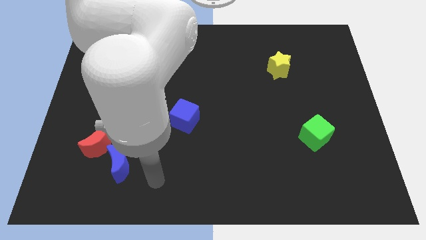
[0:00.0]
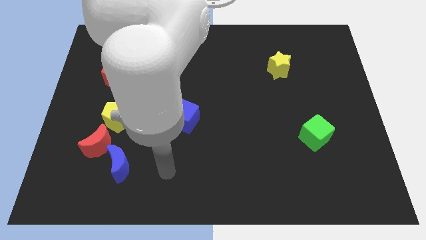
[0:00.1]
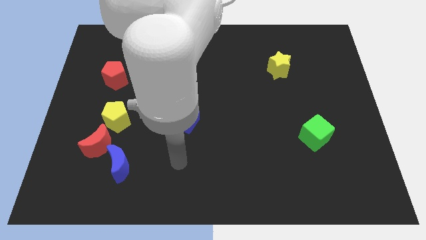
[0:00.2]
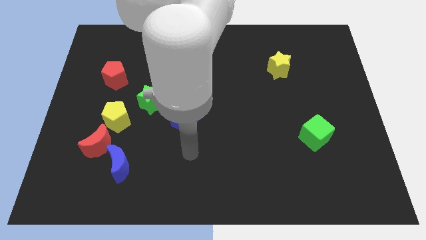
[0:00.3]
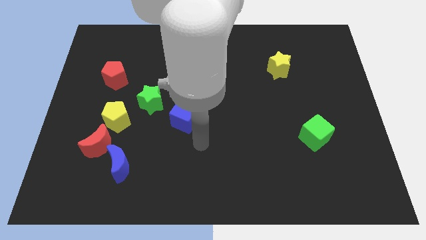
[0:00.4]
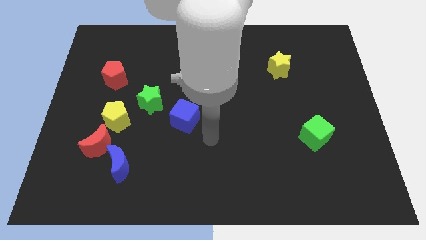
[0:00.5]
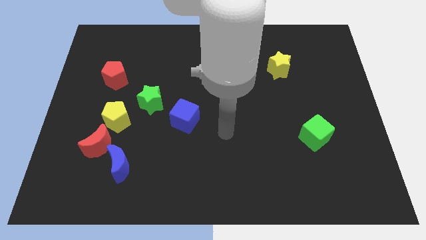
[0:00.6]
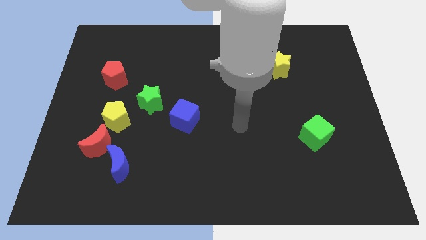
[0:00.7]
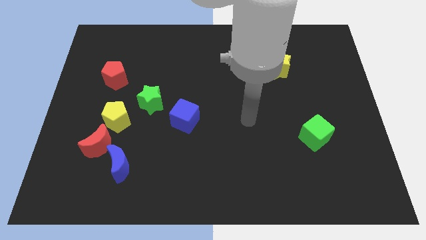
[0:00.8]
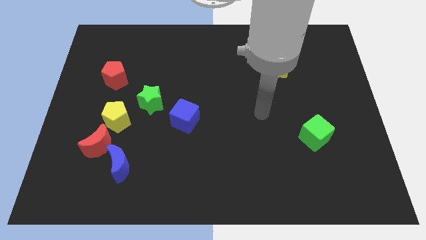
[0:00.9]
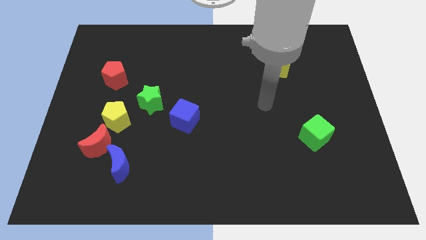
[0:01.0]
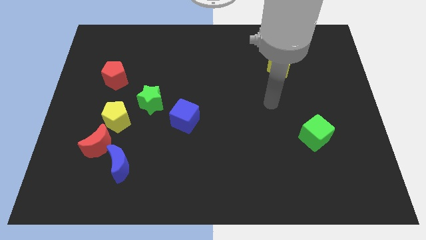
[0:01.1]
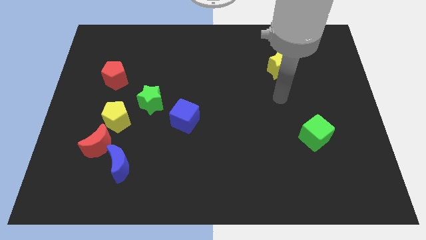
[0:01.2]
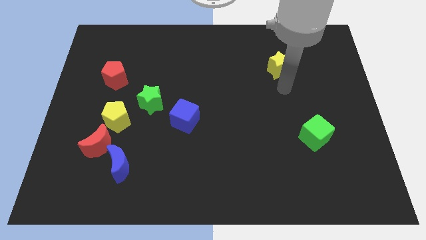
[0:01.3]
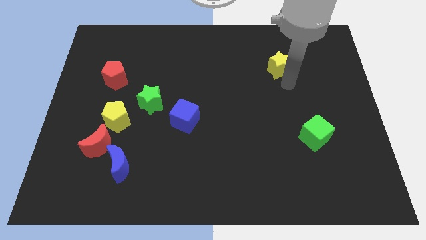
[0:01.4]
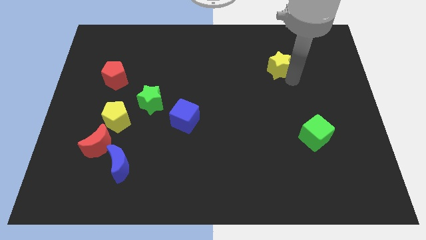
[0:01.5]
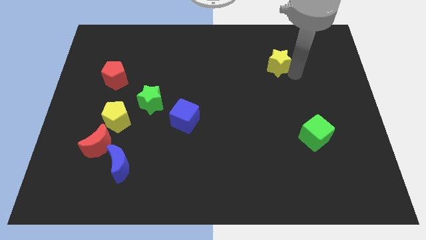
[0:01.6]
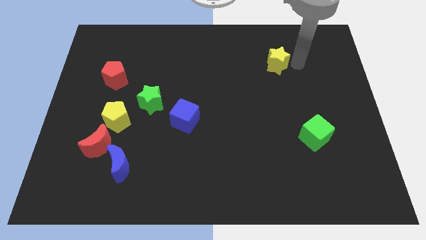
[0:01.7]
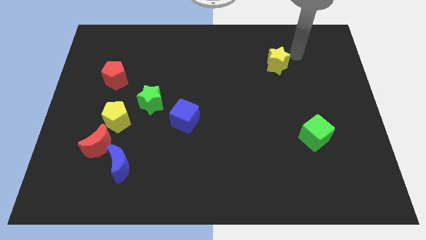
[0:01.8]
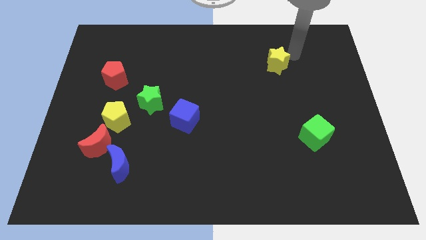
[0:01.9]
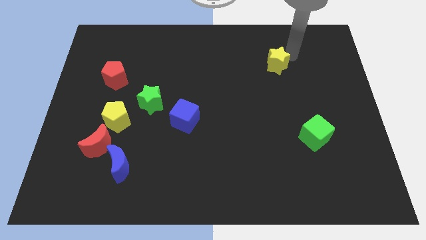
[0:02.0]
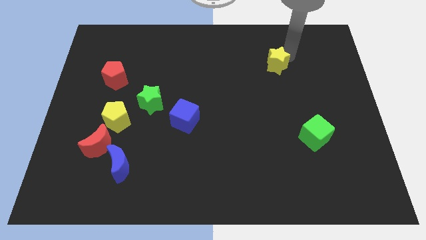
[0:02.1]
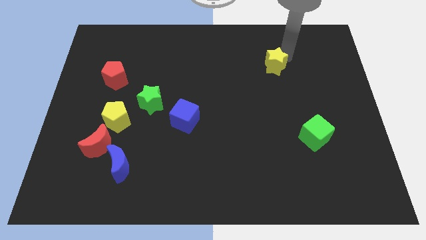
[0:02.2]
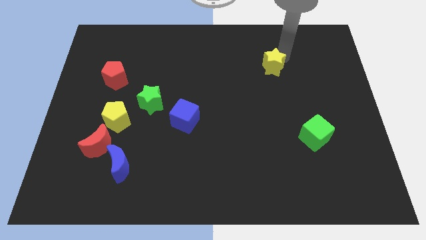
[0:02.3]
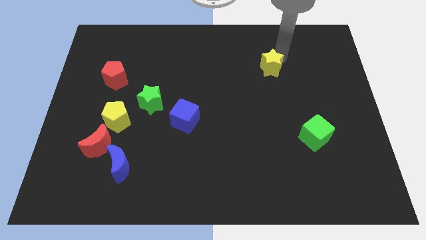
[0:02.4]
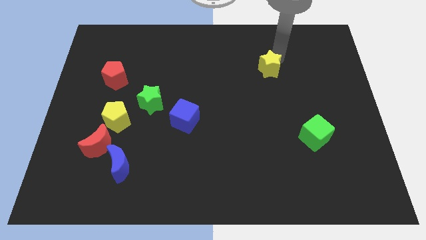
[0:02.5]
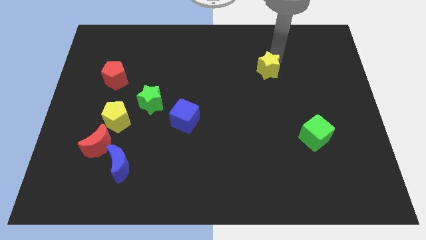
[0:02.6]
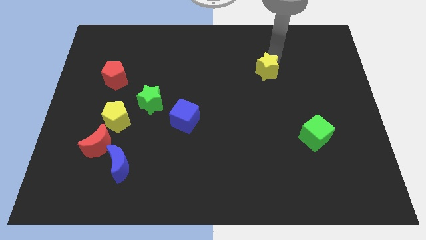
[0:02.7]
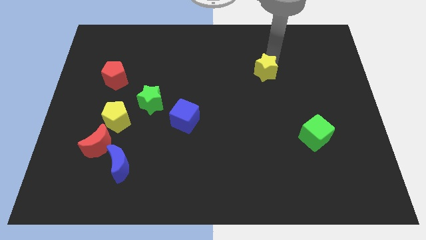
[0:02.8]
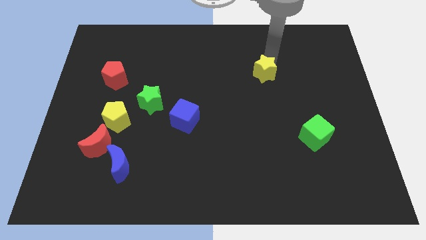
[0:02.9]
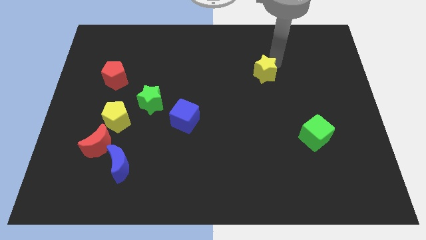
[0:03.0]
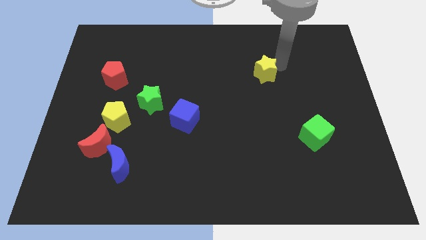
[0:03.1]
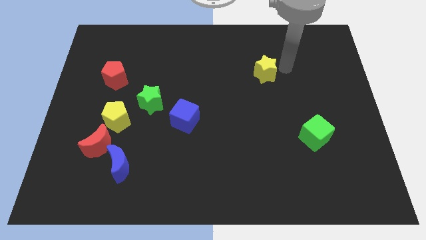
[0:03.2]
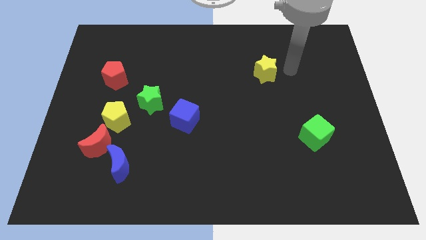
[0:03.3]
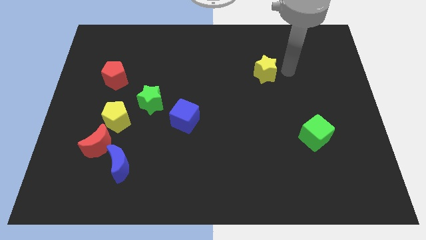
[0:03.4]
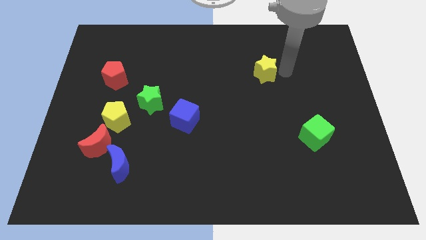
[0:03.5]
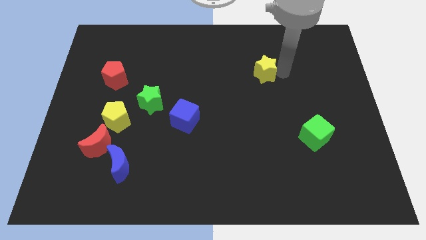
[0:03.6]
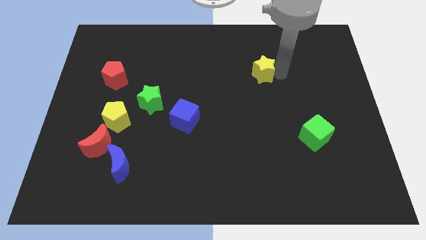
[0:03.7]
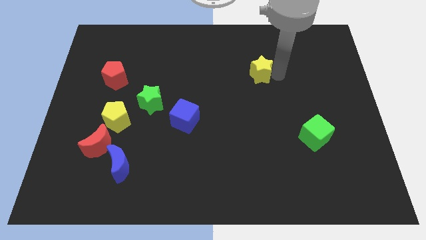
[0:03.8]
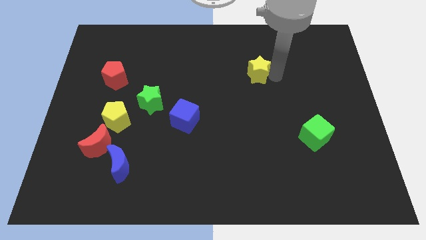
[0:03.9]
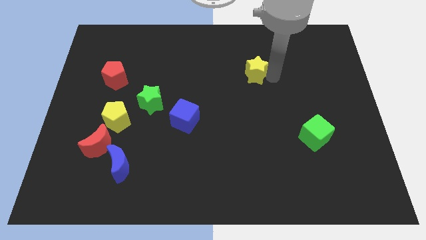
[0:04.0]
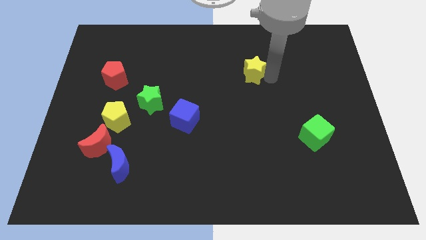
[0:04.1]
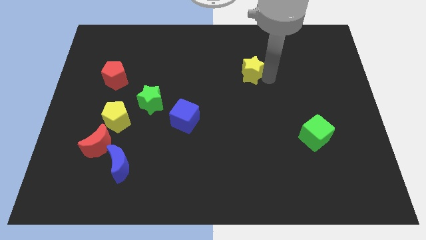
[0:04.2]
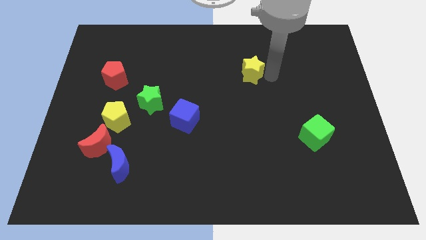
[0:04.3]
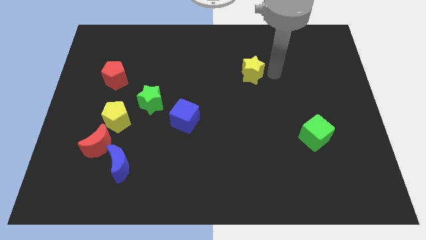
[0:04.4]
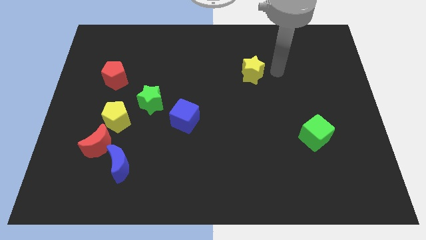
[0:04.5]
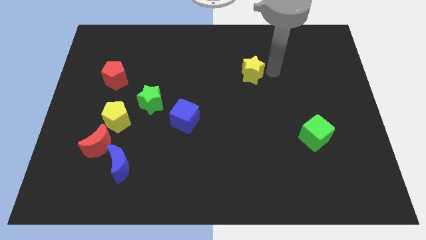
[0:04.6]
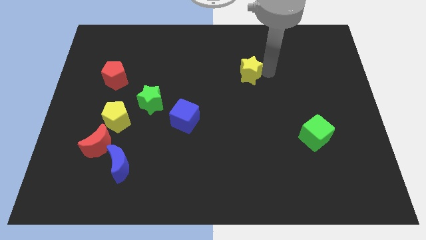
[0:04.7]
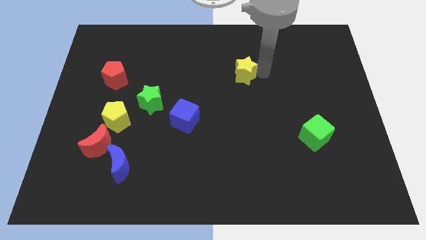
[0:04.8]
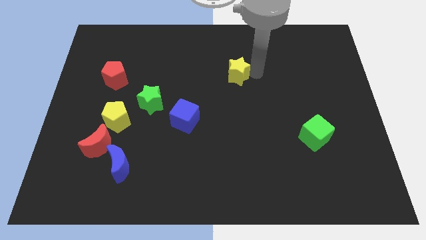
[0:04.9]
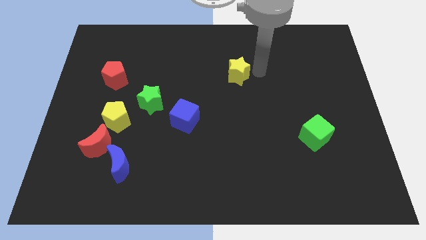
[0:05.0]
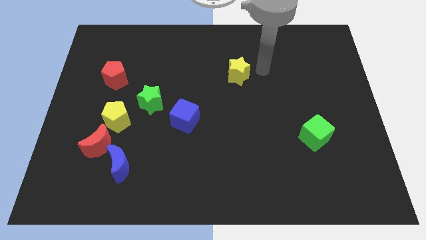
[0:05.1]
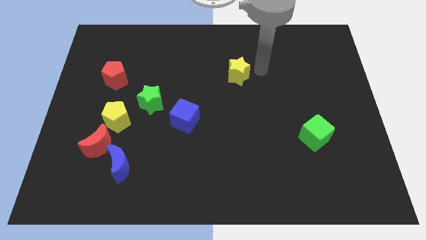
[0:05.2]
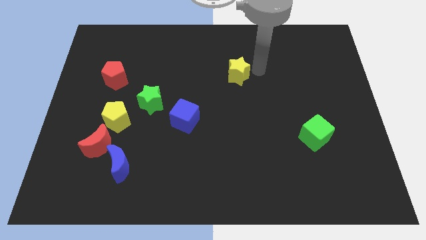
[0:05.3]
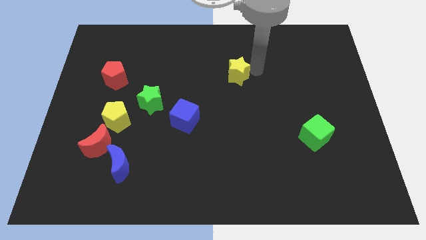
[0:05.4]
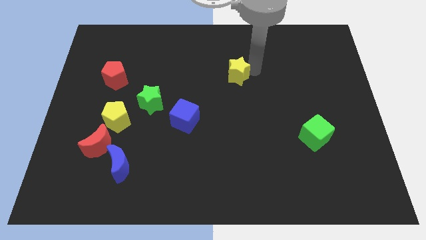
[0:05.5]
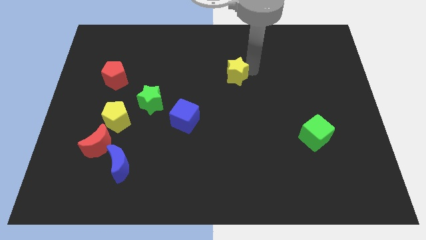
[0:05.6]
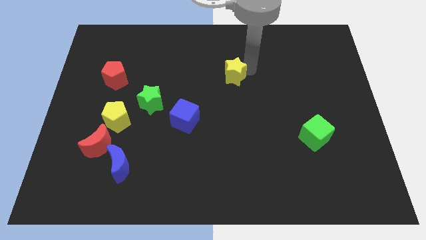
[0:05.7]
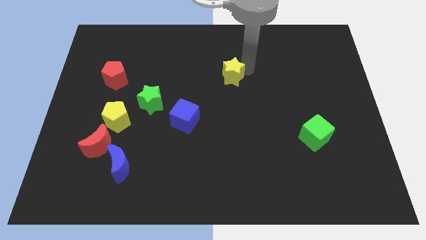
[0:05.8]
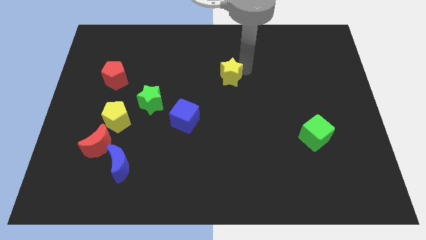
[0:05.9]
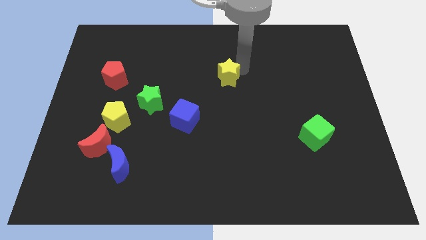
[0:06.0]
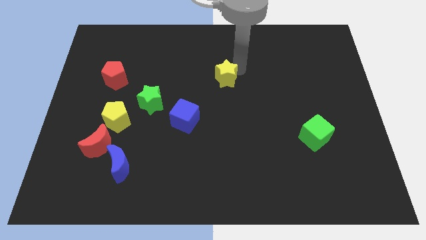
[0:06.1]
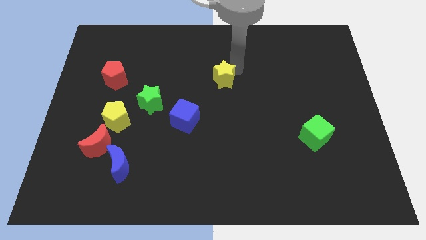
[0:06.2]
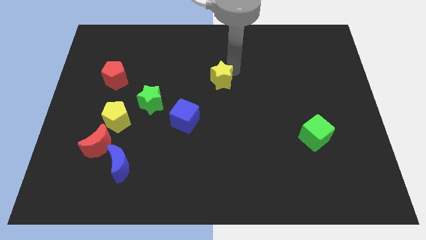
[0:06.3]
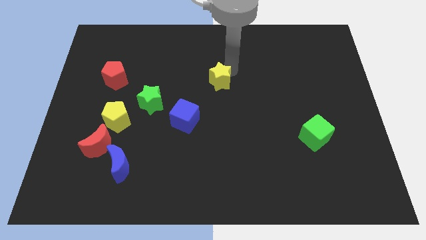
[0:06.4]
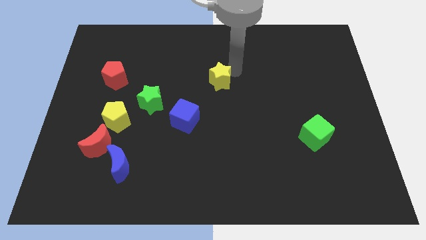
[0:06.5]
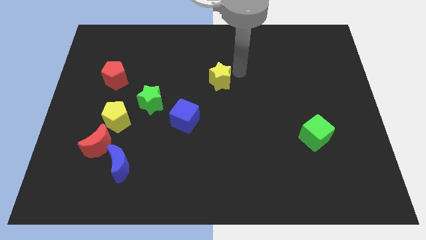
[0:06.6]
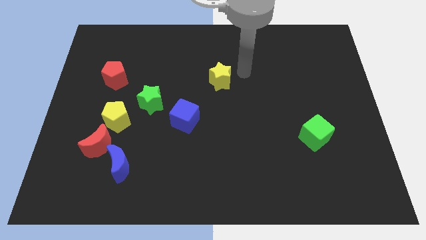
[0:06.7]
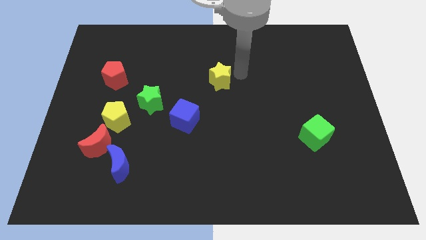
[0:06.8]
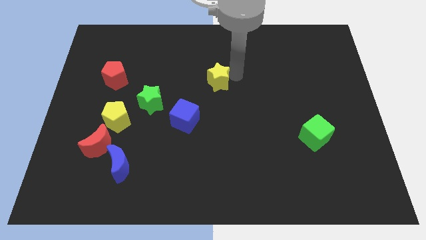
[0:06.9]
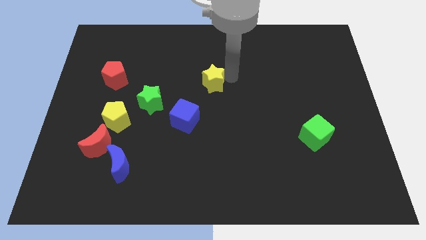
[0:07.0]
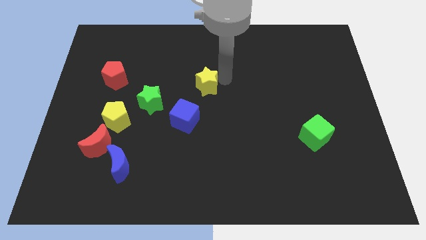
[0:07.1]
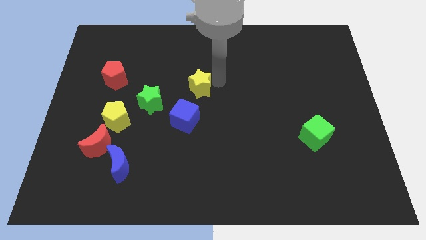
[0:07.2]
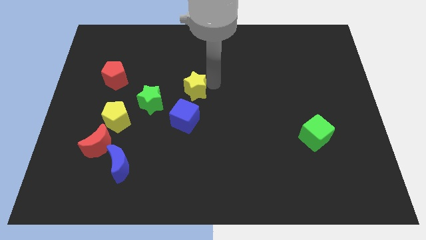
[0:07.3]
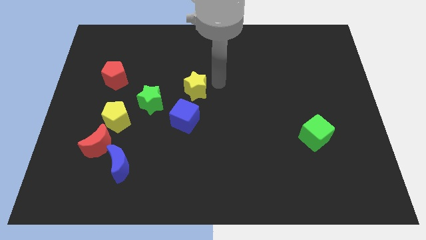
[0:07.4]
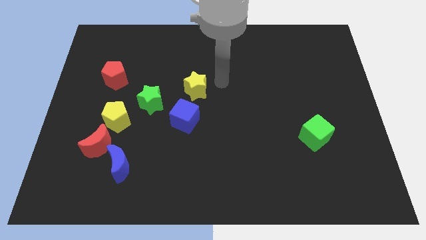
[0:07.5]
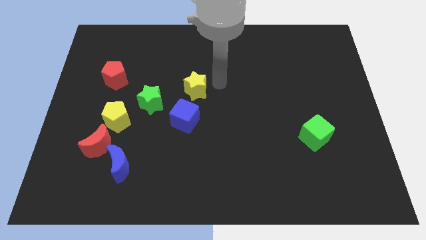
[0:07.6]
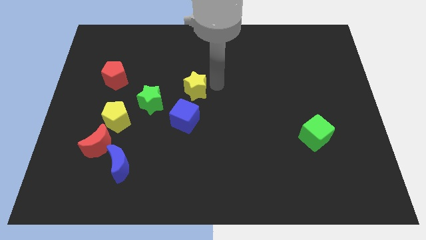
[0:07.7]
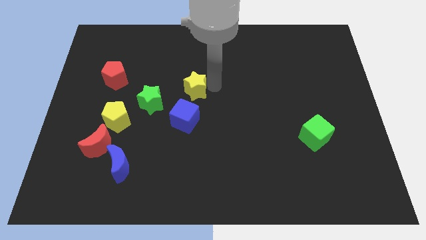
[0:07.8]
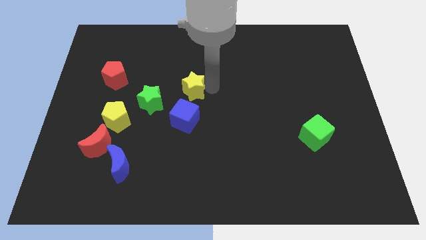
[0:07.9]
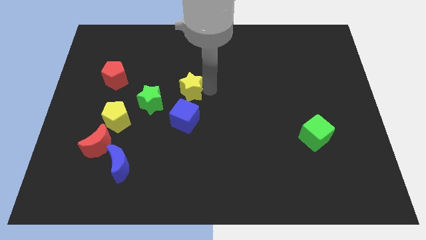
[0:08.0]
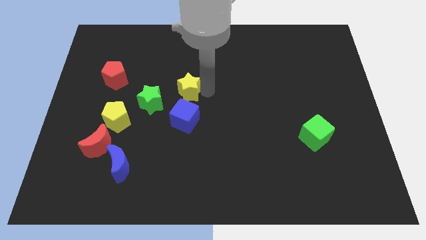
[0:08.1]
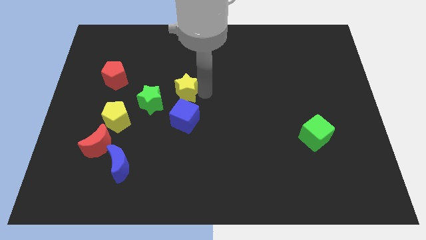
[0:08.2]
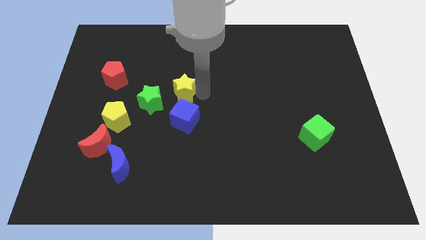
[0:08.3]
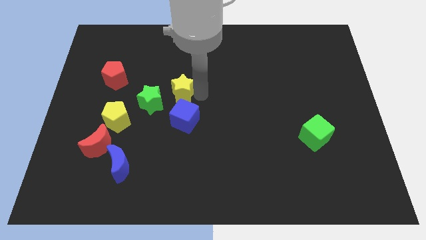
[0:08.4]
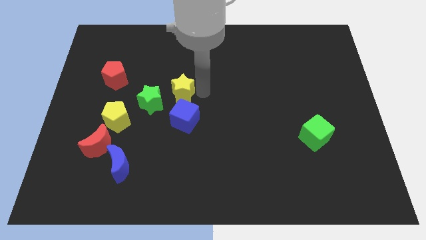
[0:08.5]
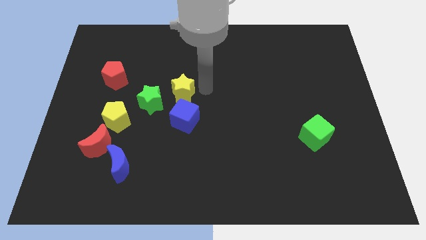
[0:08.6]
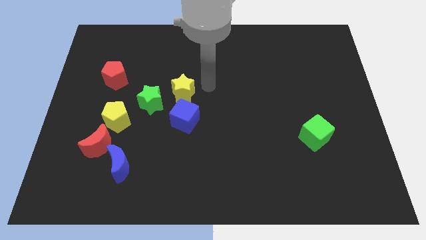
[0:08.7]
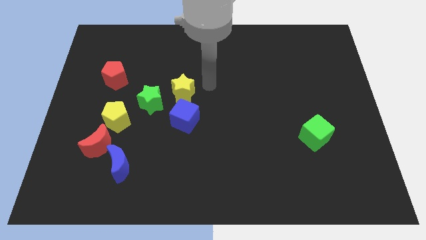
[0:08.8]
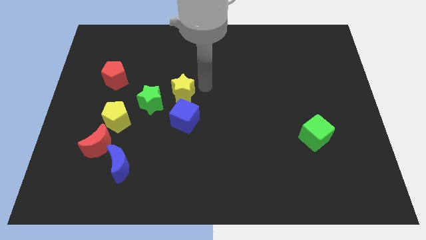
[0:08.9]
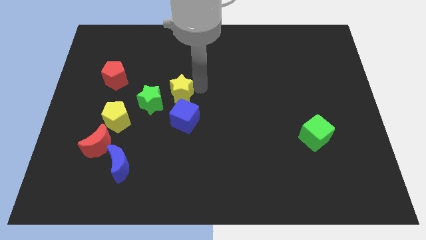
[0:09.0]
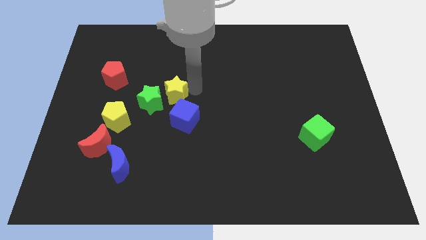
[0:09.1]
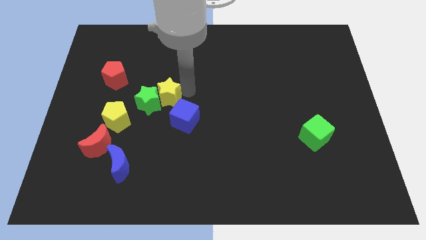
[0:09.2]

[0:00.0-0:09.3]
push the yellow star next to the green star
